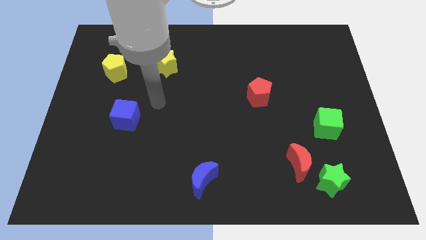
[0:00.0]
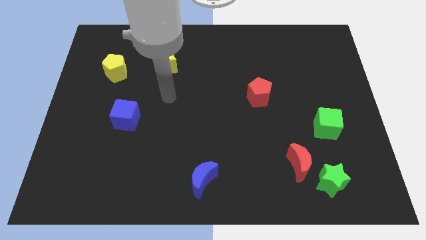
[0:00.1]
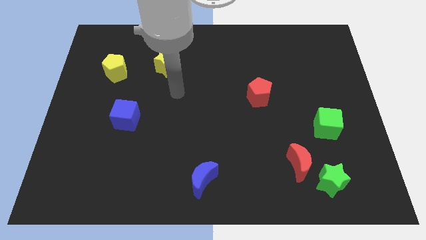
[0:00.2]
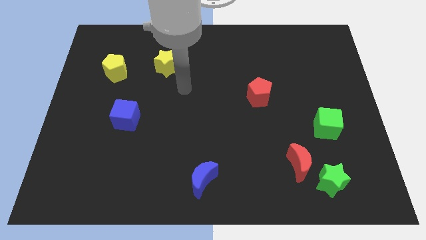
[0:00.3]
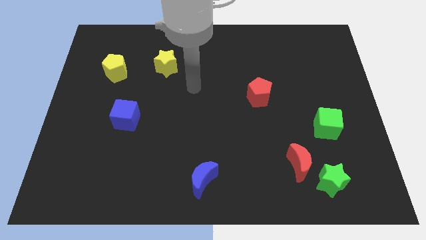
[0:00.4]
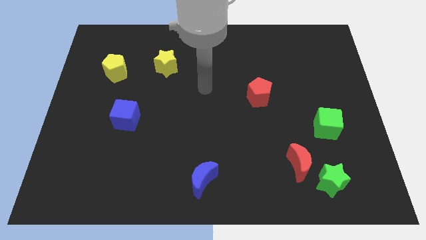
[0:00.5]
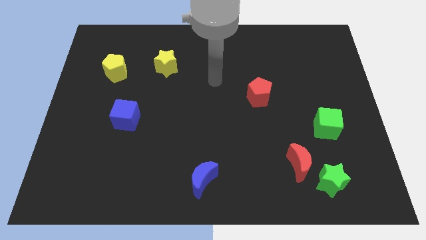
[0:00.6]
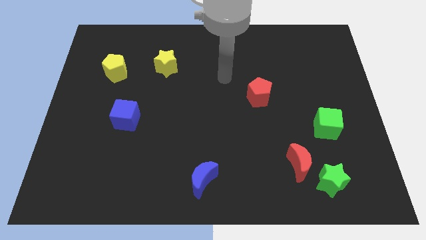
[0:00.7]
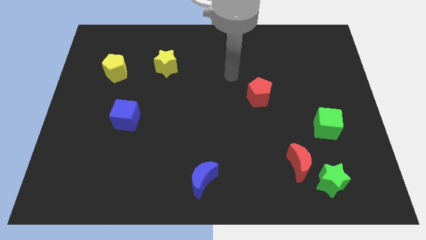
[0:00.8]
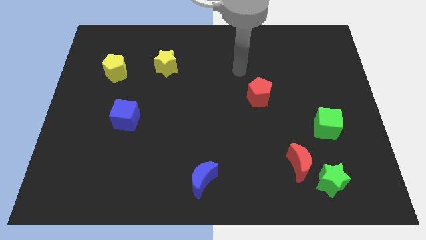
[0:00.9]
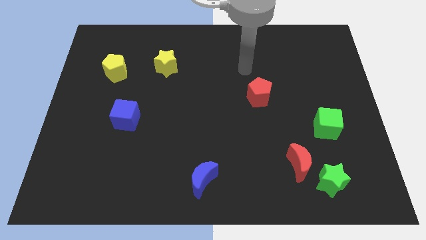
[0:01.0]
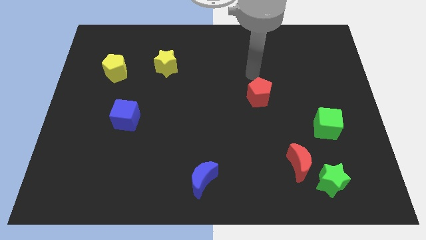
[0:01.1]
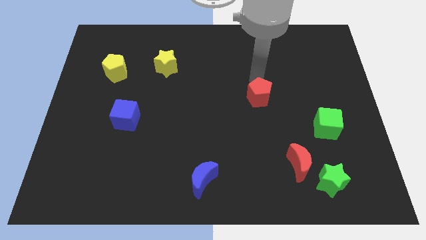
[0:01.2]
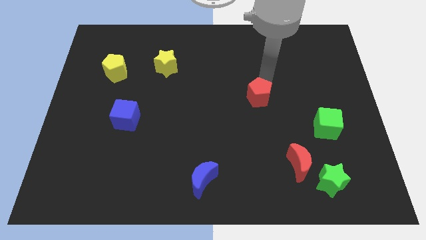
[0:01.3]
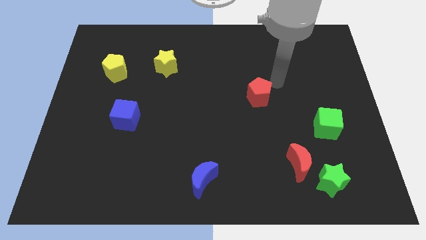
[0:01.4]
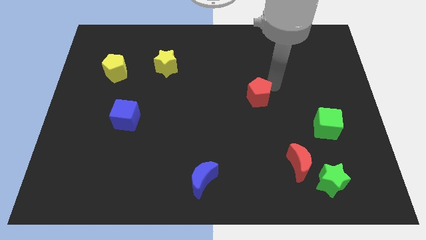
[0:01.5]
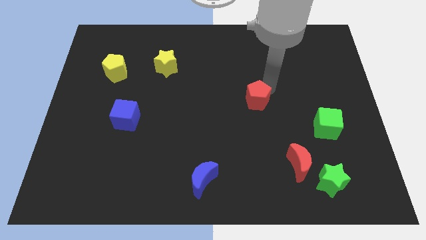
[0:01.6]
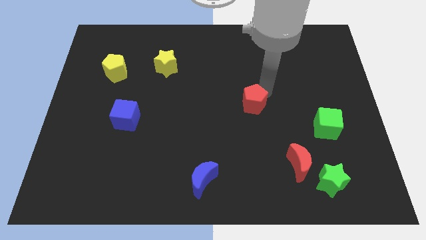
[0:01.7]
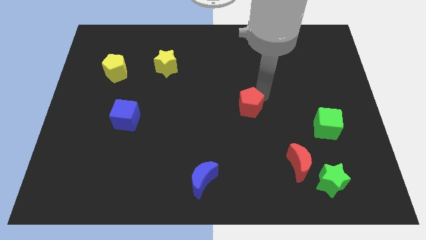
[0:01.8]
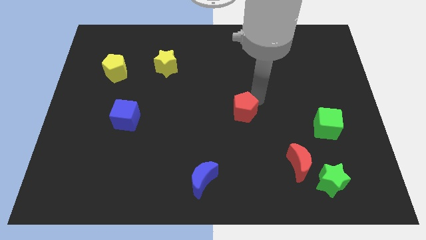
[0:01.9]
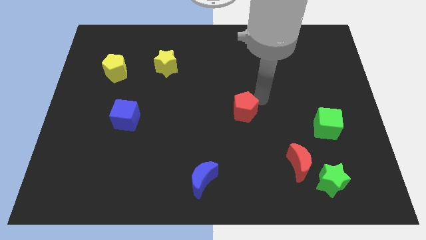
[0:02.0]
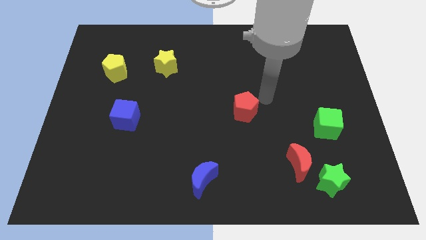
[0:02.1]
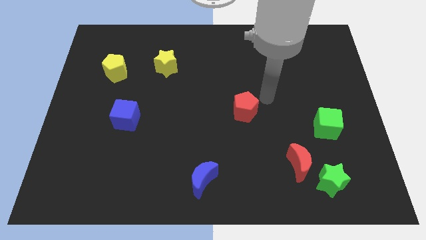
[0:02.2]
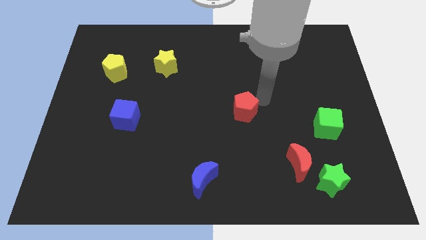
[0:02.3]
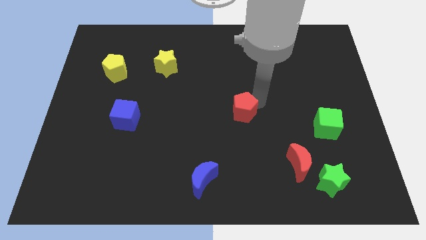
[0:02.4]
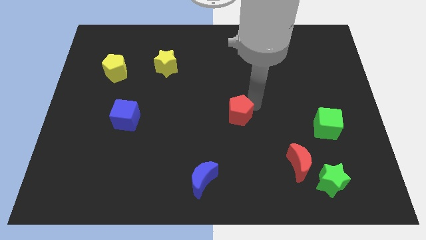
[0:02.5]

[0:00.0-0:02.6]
slightly push the red pentagon downwards and to the left diagonally

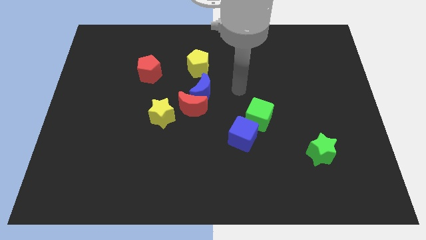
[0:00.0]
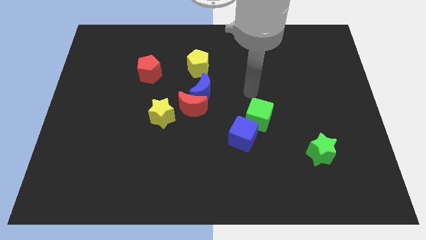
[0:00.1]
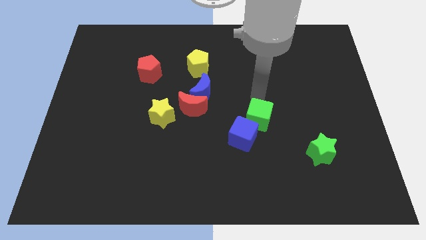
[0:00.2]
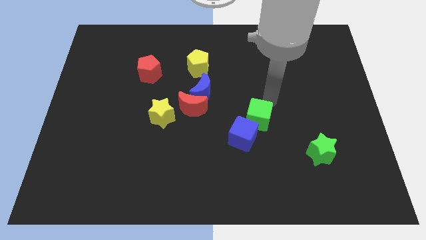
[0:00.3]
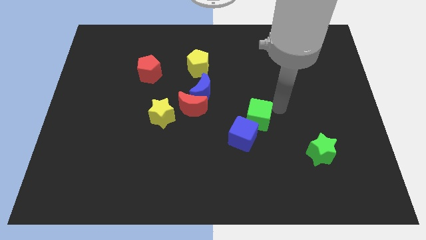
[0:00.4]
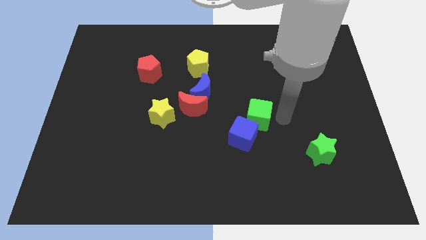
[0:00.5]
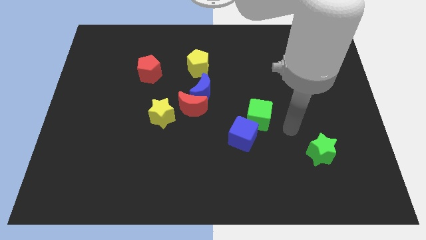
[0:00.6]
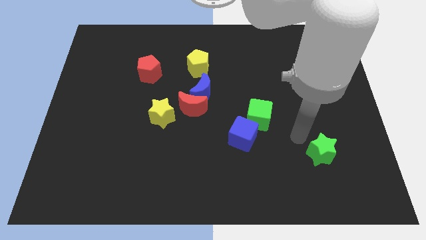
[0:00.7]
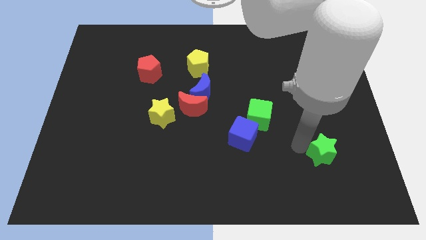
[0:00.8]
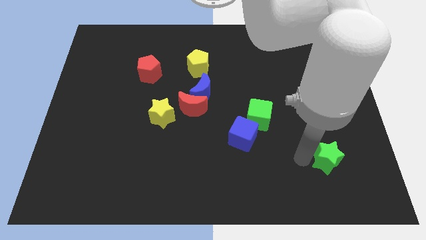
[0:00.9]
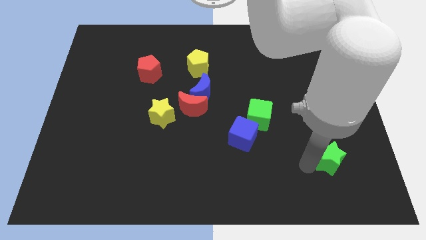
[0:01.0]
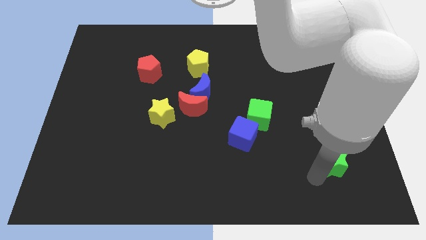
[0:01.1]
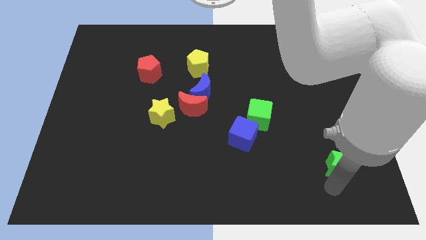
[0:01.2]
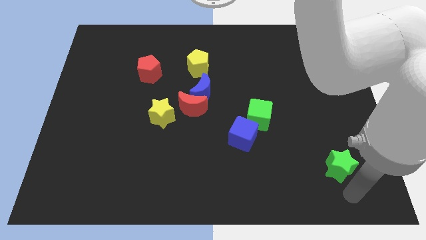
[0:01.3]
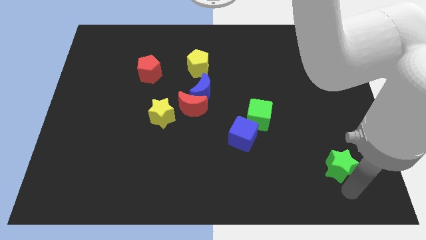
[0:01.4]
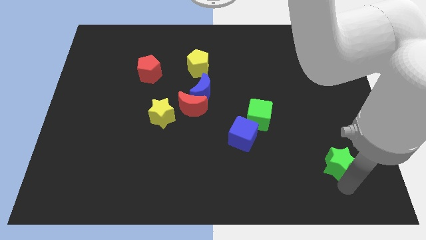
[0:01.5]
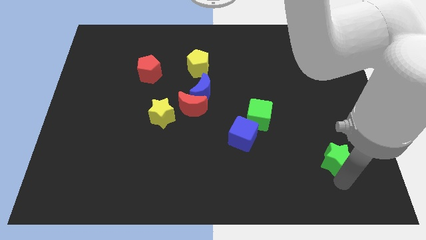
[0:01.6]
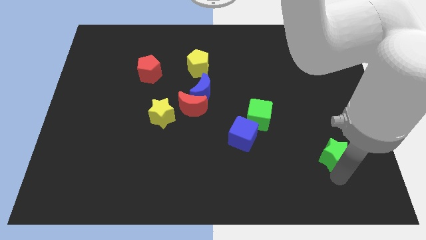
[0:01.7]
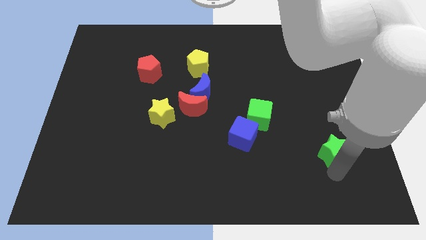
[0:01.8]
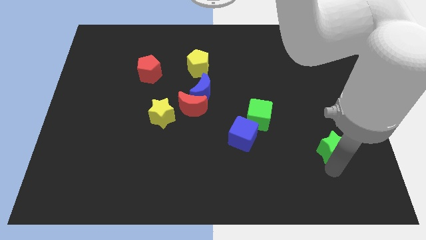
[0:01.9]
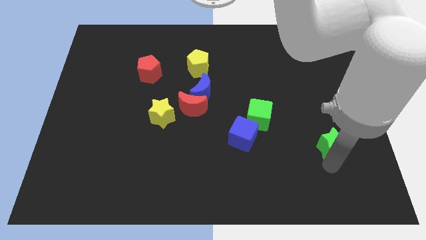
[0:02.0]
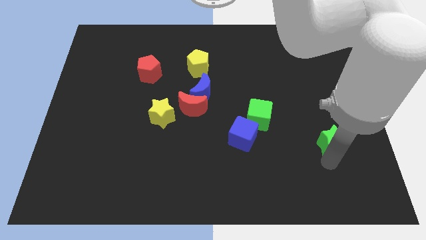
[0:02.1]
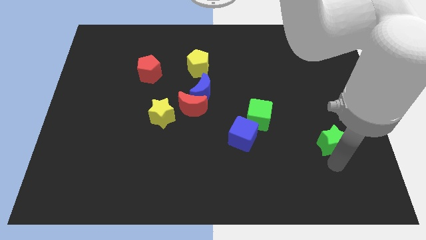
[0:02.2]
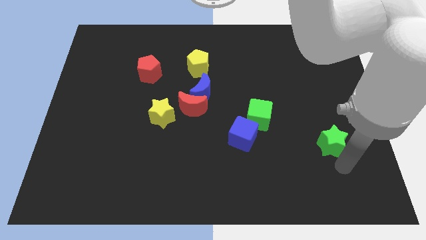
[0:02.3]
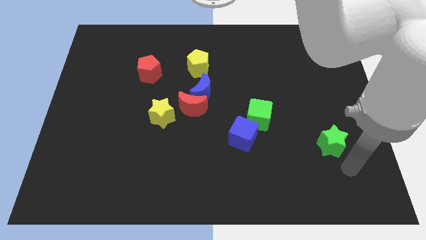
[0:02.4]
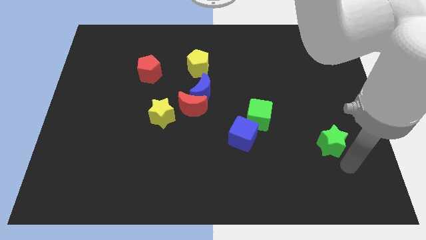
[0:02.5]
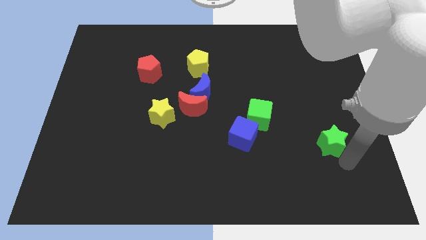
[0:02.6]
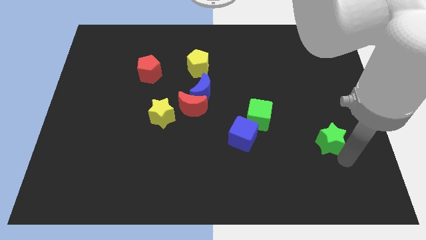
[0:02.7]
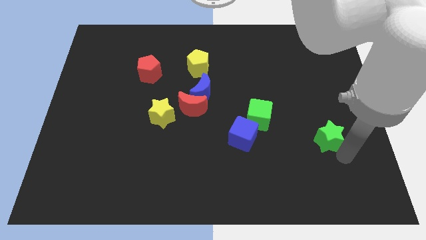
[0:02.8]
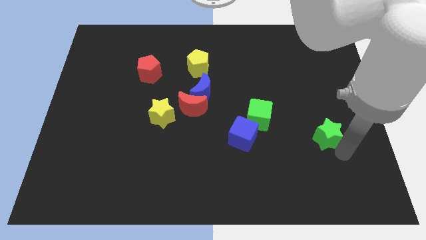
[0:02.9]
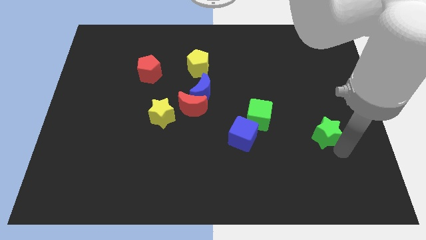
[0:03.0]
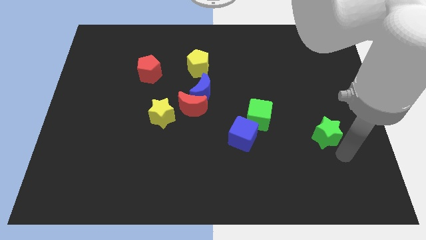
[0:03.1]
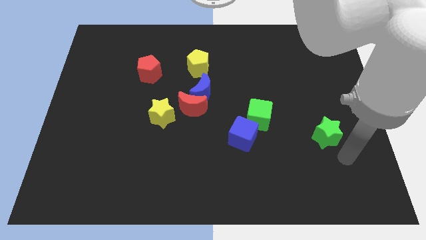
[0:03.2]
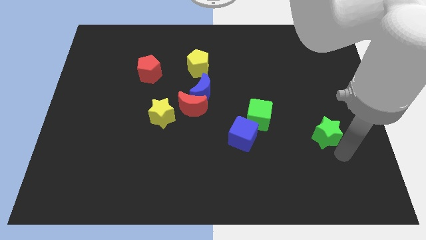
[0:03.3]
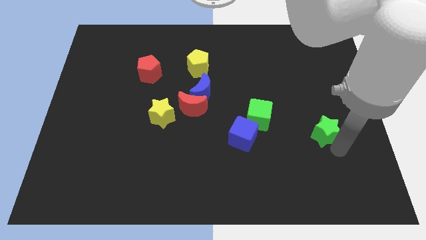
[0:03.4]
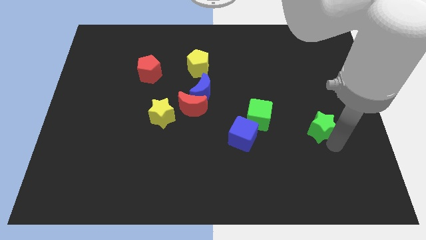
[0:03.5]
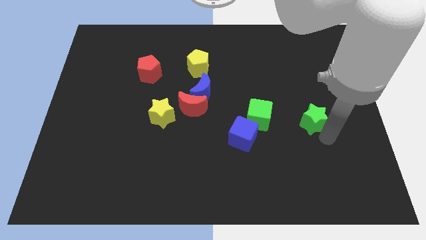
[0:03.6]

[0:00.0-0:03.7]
slightly slide the green star upwards

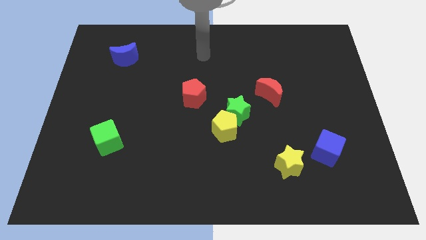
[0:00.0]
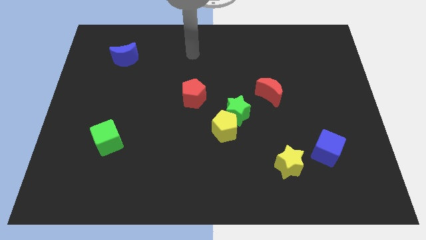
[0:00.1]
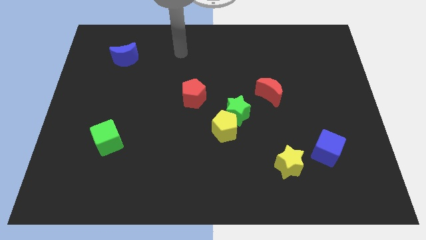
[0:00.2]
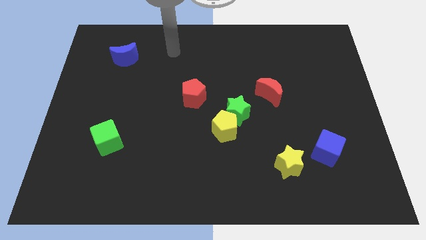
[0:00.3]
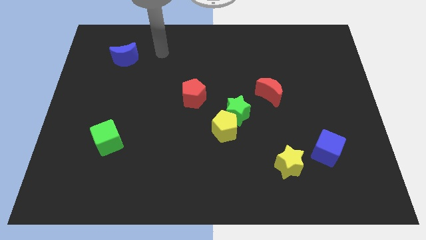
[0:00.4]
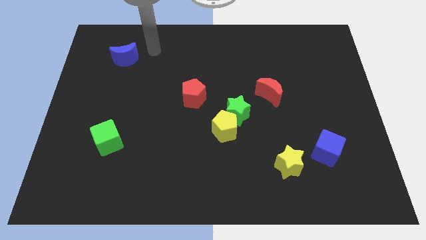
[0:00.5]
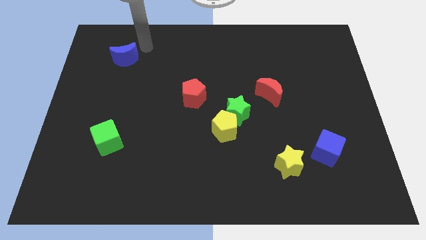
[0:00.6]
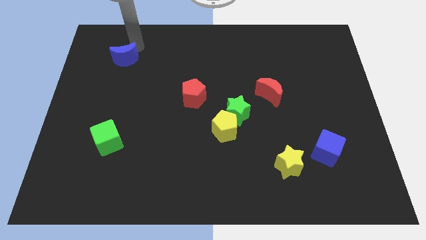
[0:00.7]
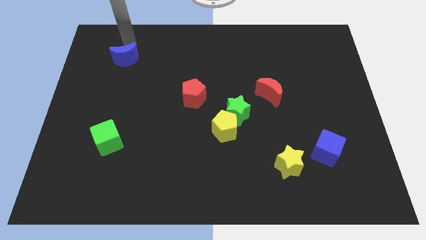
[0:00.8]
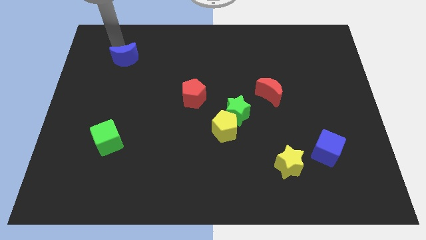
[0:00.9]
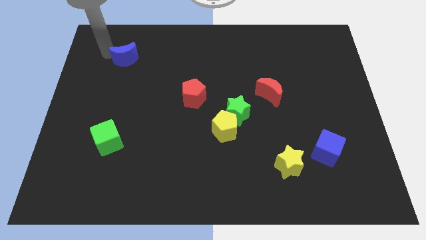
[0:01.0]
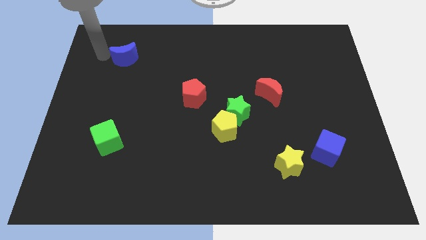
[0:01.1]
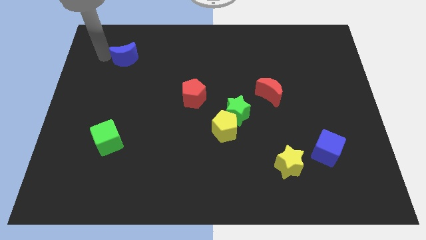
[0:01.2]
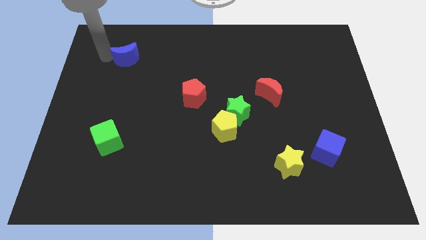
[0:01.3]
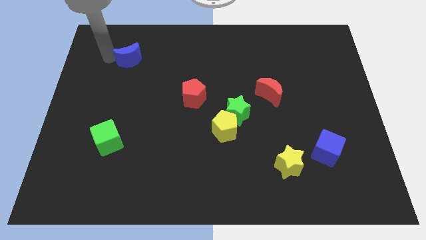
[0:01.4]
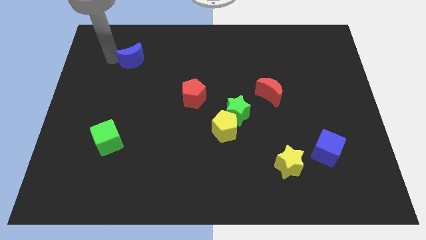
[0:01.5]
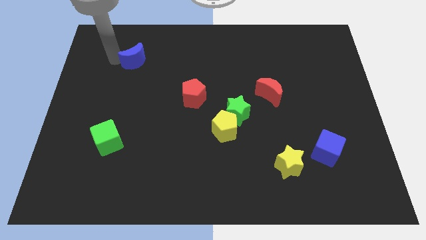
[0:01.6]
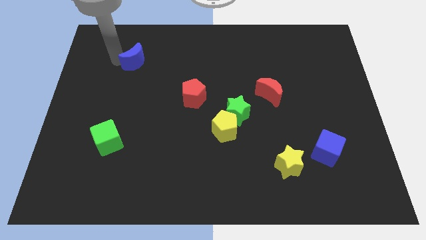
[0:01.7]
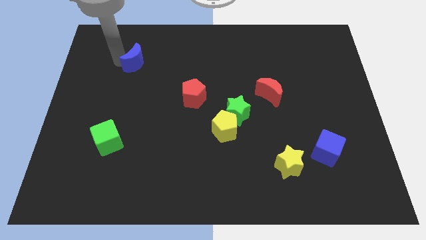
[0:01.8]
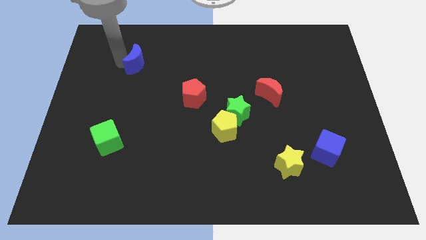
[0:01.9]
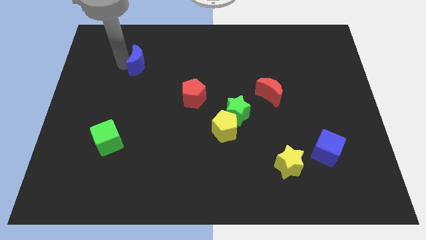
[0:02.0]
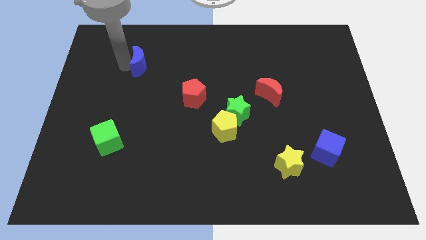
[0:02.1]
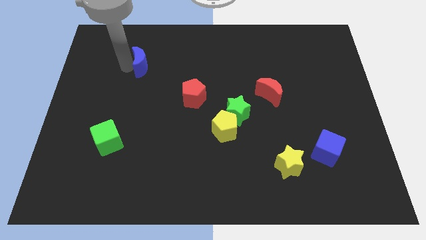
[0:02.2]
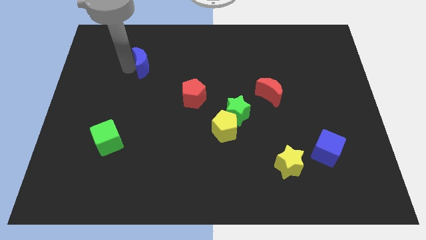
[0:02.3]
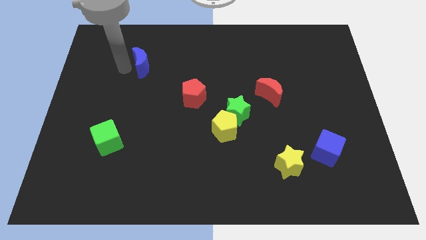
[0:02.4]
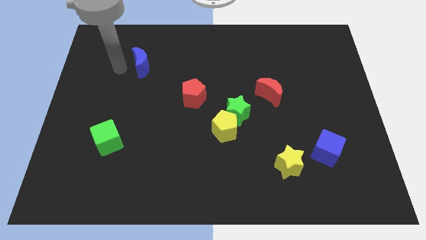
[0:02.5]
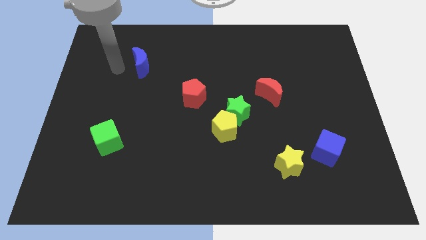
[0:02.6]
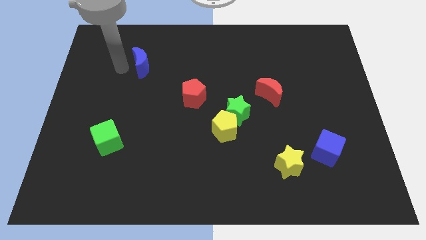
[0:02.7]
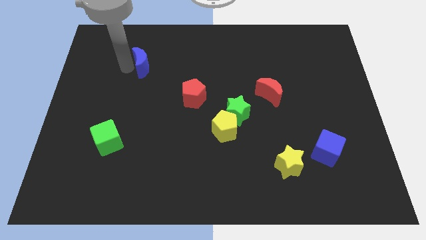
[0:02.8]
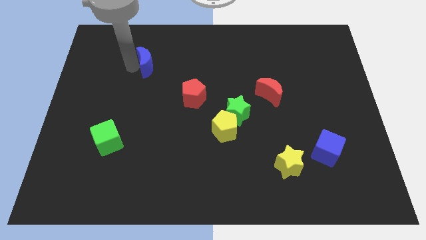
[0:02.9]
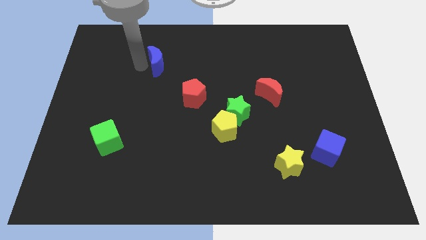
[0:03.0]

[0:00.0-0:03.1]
push the blue moon right a little bit
